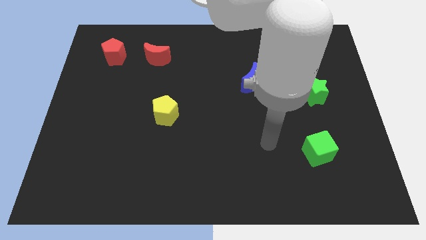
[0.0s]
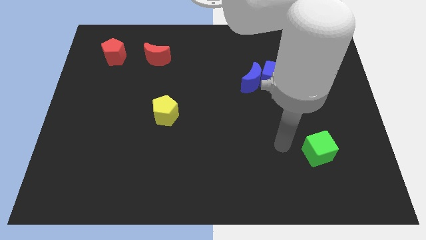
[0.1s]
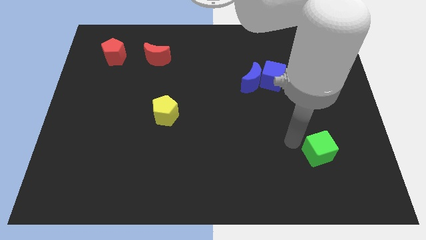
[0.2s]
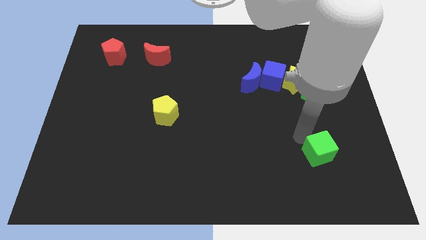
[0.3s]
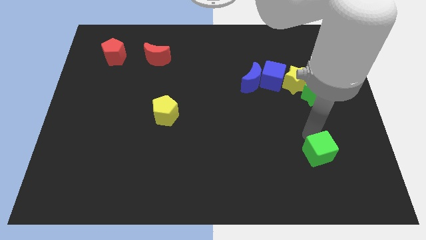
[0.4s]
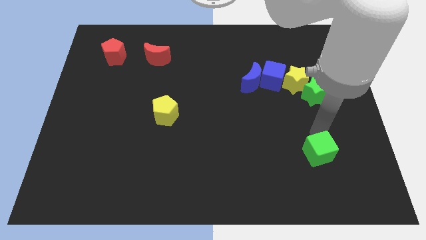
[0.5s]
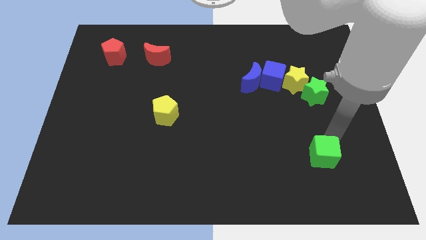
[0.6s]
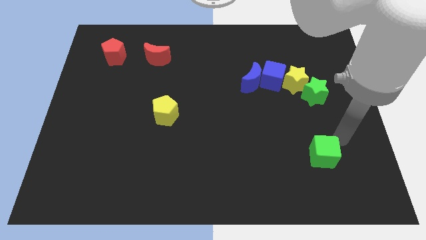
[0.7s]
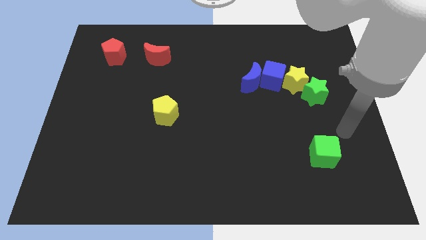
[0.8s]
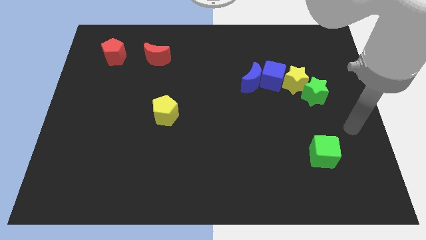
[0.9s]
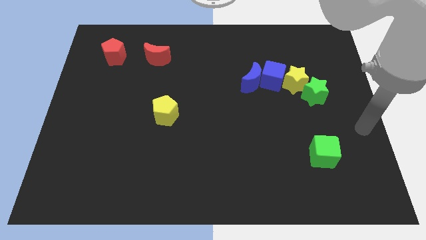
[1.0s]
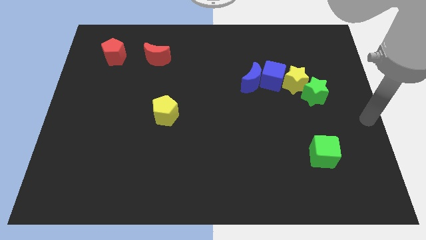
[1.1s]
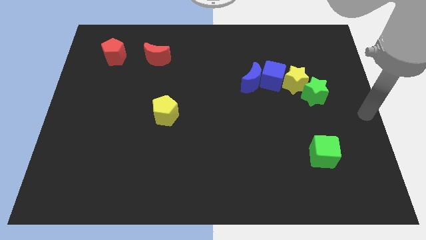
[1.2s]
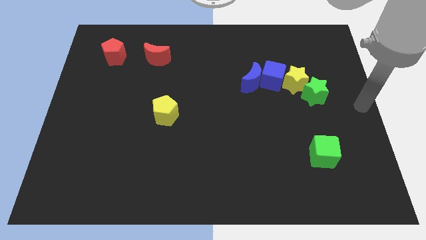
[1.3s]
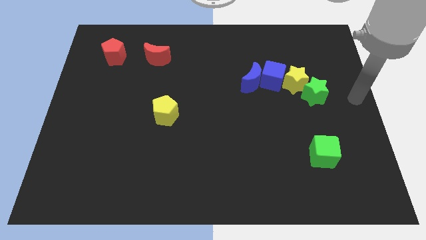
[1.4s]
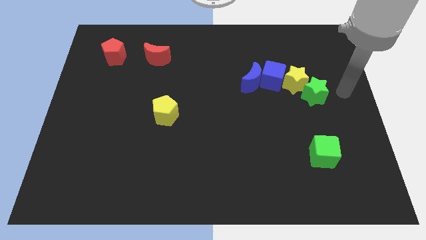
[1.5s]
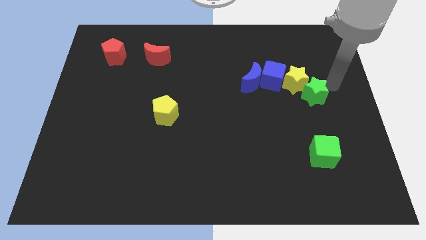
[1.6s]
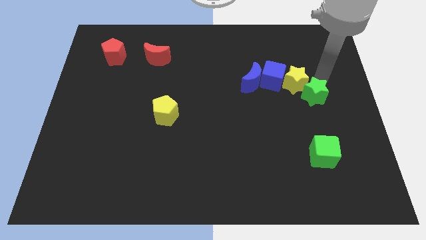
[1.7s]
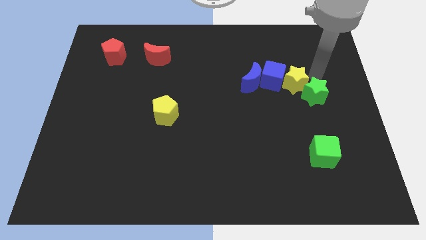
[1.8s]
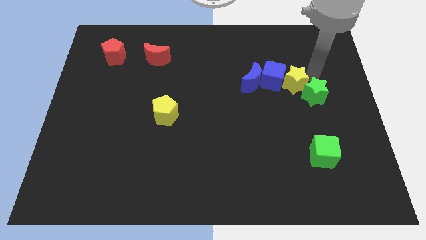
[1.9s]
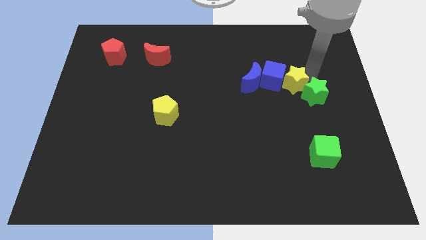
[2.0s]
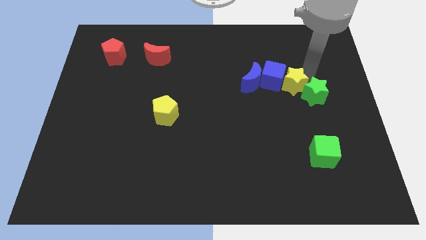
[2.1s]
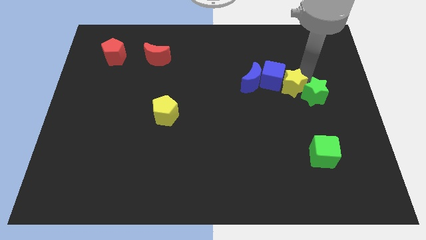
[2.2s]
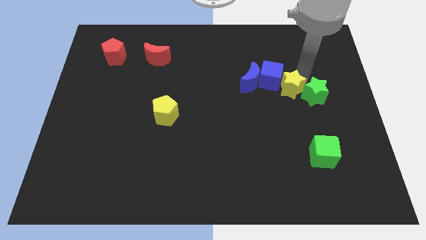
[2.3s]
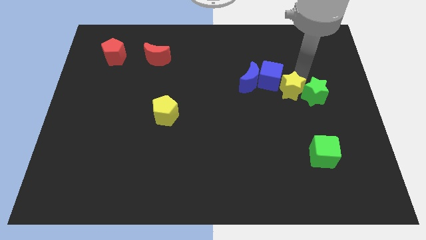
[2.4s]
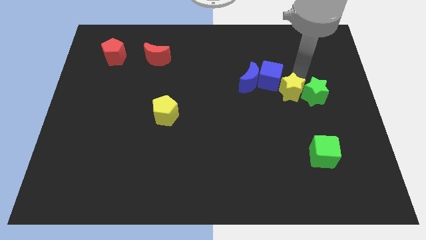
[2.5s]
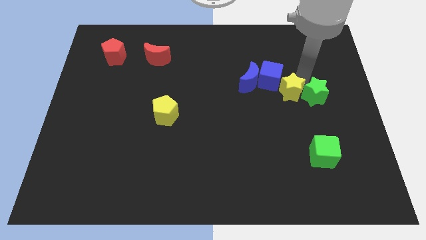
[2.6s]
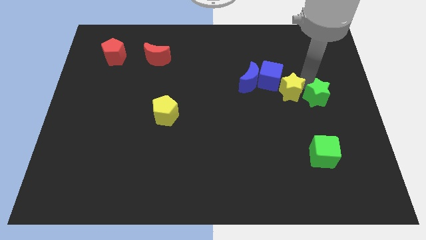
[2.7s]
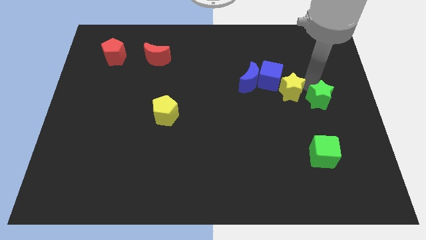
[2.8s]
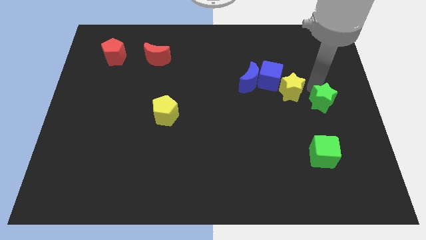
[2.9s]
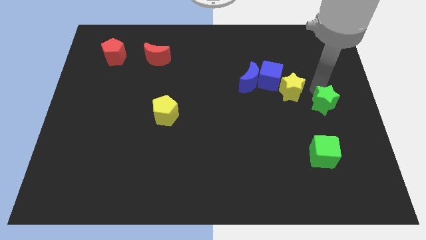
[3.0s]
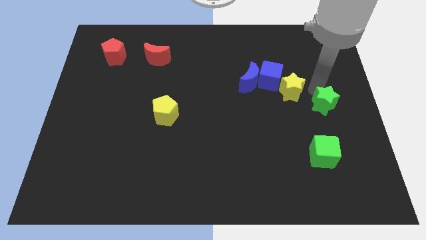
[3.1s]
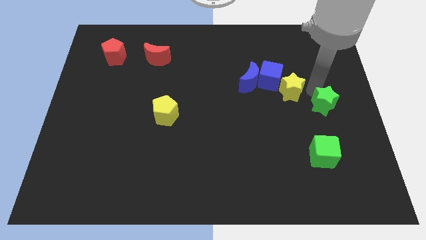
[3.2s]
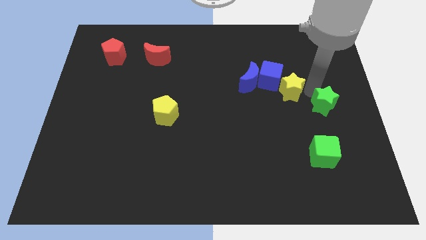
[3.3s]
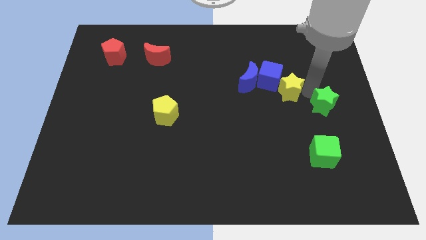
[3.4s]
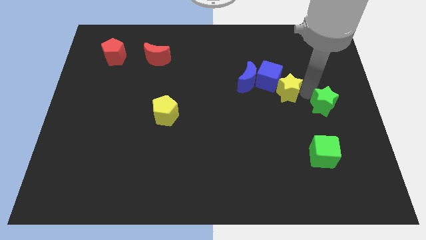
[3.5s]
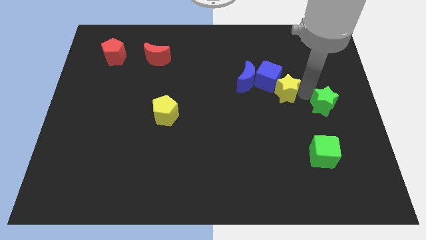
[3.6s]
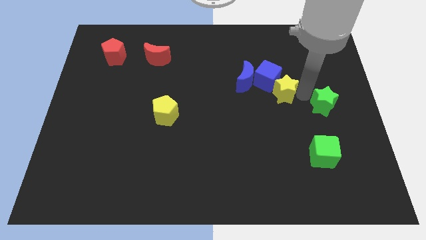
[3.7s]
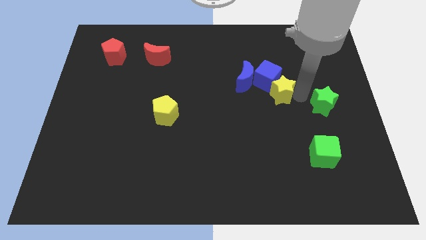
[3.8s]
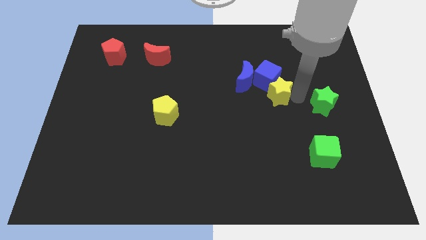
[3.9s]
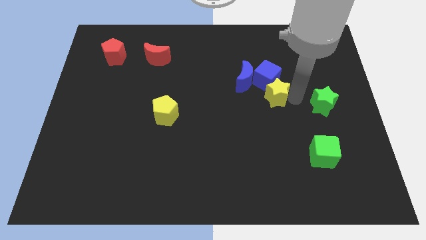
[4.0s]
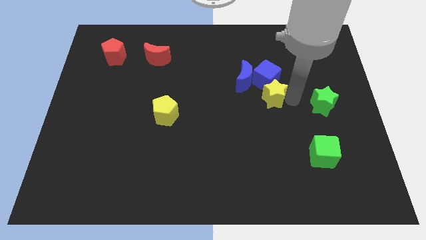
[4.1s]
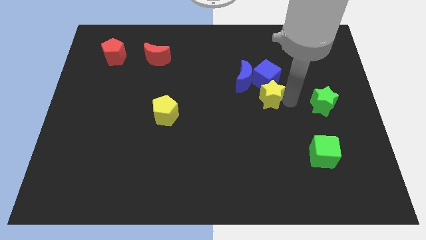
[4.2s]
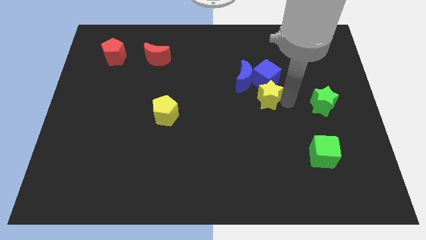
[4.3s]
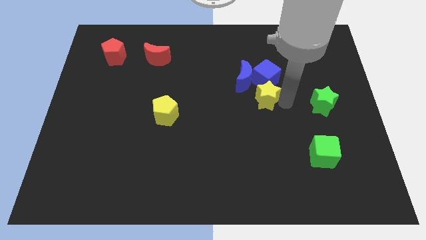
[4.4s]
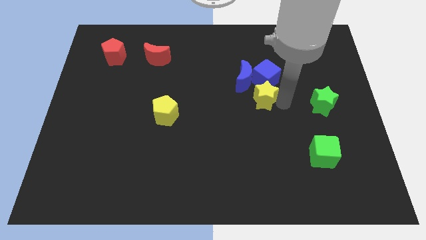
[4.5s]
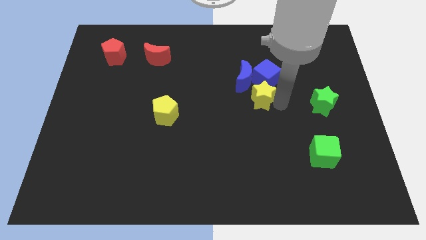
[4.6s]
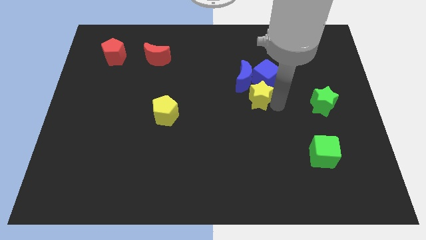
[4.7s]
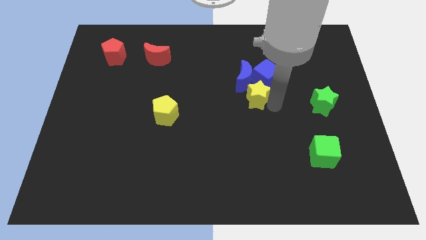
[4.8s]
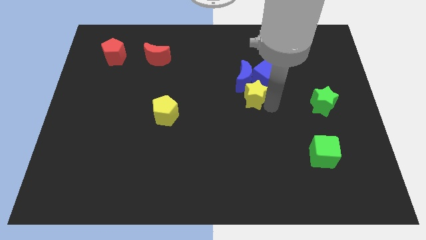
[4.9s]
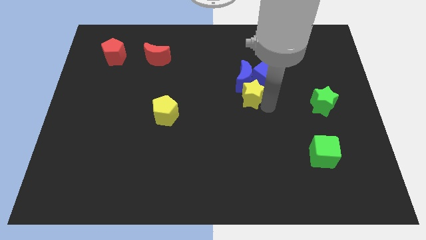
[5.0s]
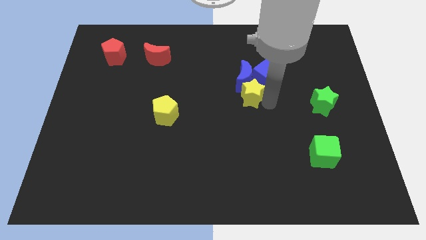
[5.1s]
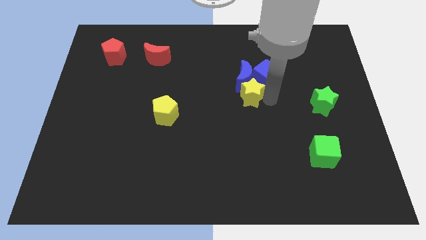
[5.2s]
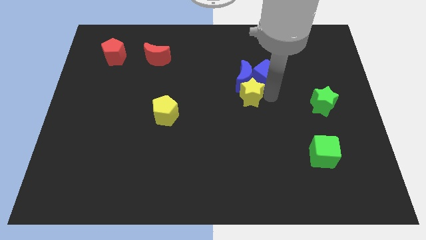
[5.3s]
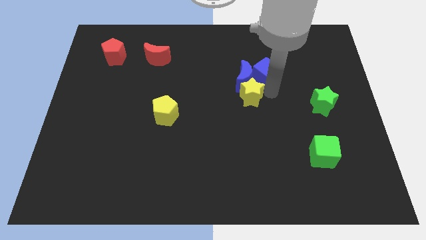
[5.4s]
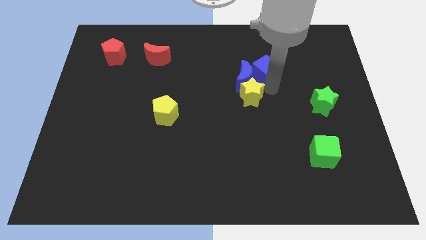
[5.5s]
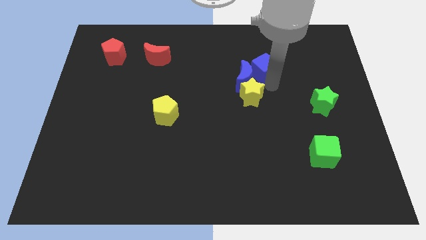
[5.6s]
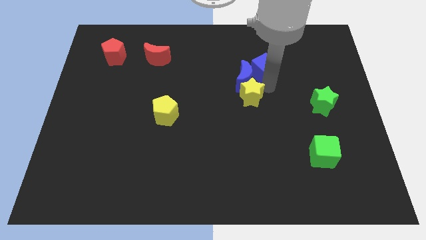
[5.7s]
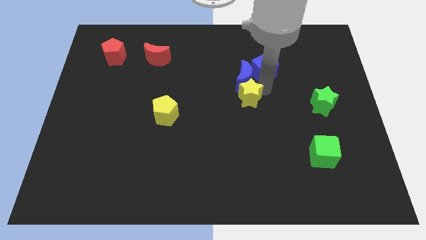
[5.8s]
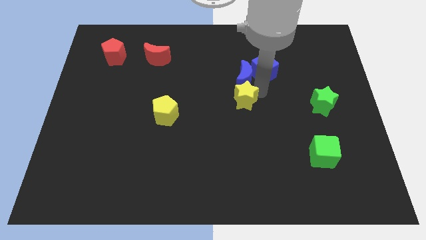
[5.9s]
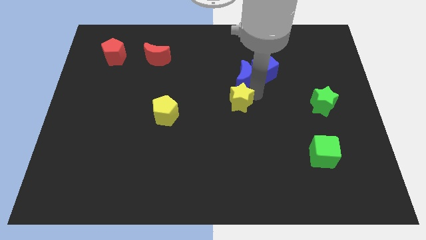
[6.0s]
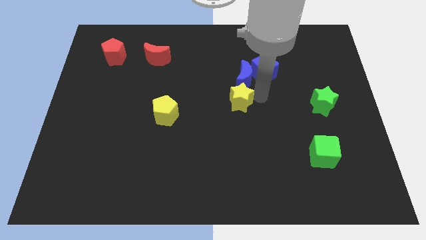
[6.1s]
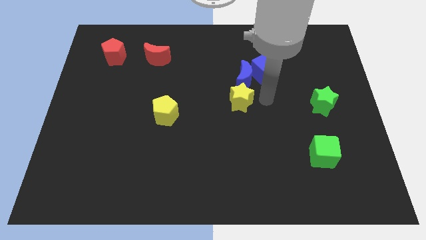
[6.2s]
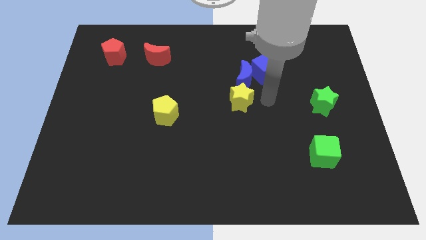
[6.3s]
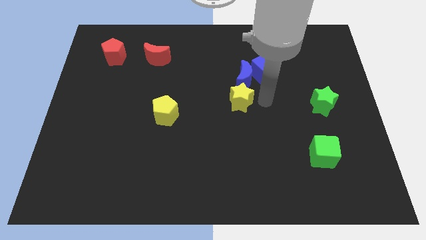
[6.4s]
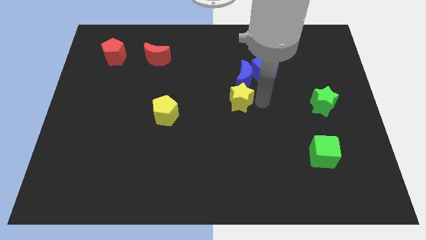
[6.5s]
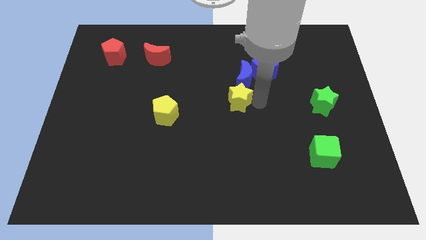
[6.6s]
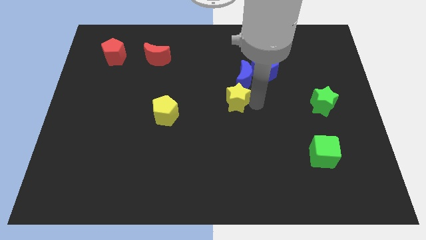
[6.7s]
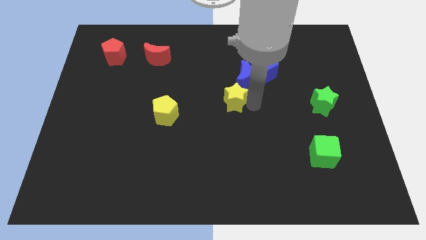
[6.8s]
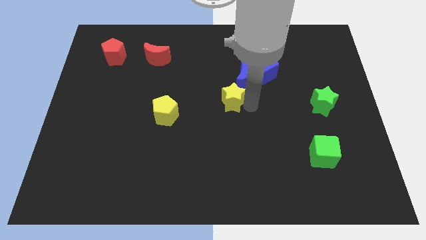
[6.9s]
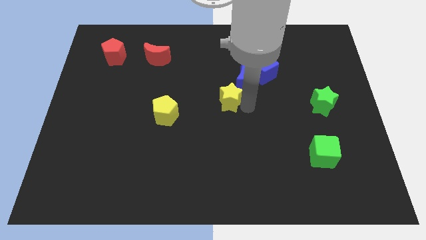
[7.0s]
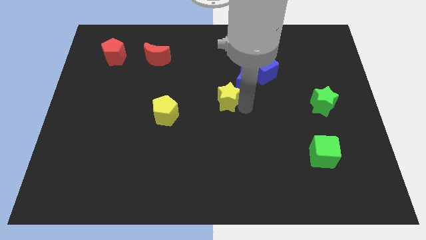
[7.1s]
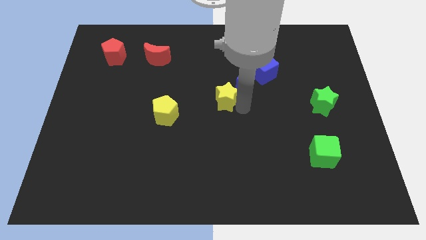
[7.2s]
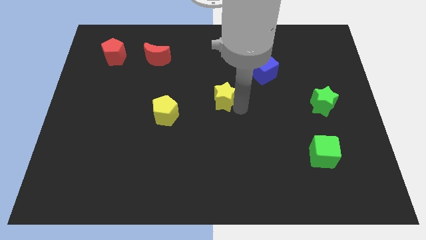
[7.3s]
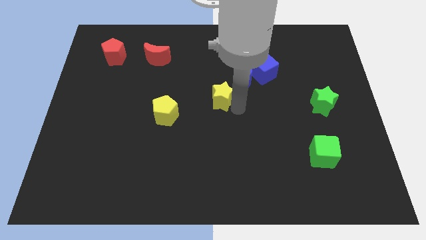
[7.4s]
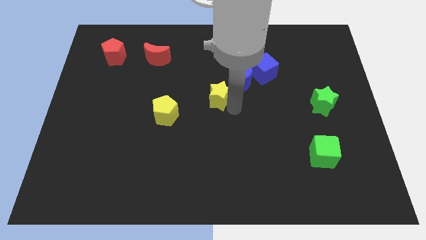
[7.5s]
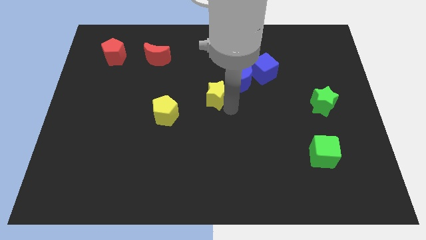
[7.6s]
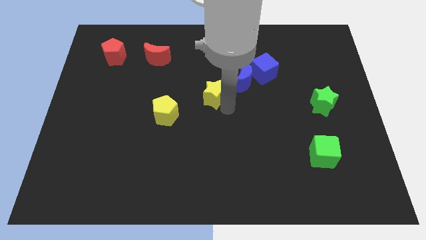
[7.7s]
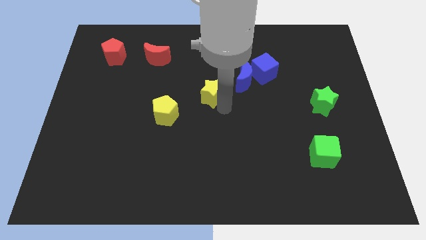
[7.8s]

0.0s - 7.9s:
push the yellow star to the left

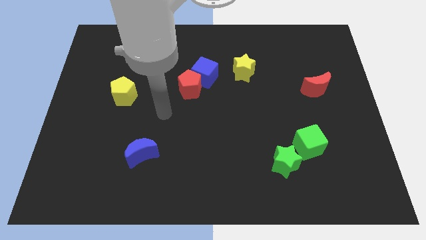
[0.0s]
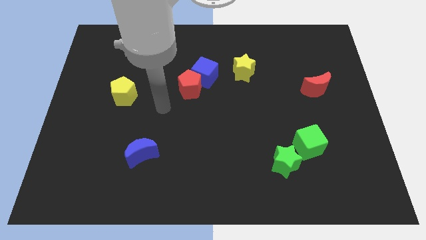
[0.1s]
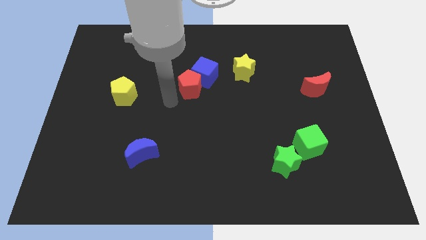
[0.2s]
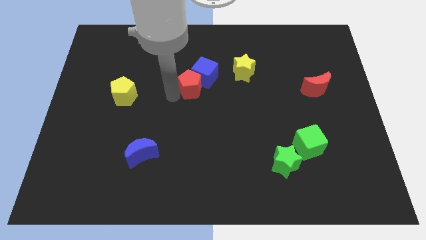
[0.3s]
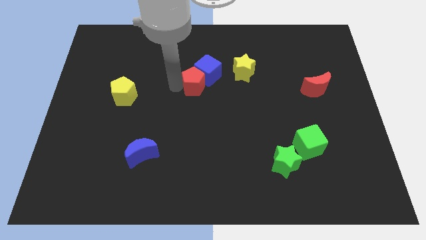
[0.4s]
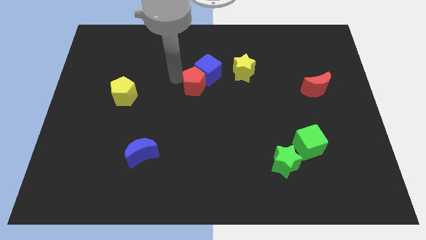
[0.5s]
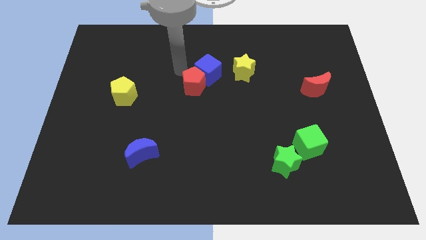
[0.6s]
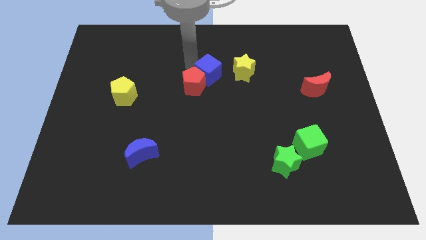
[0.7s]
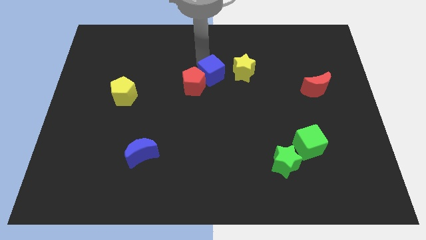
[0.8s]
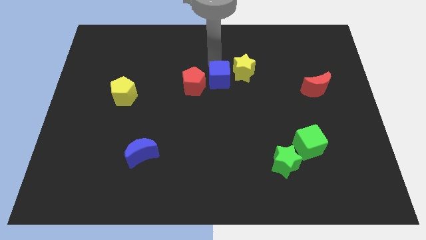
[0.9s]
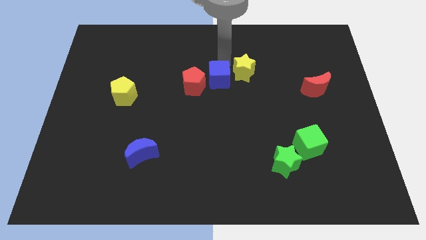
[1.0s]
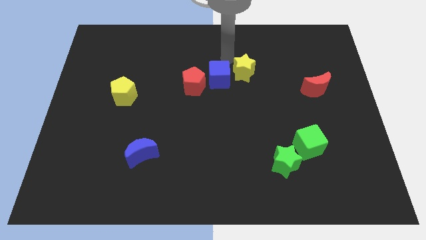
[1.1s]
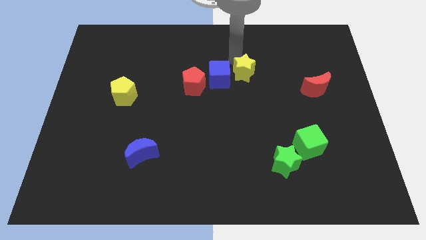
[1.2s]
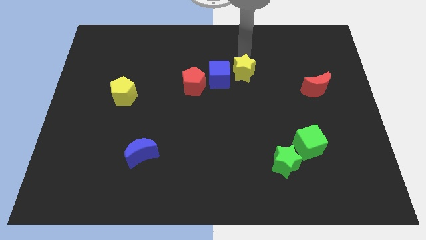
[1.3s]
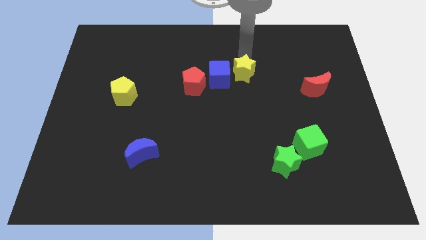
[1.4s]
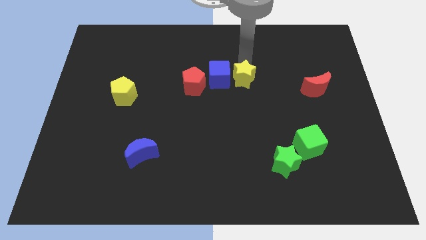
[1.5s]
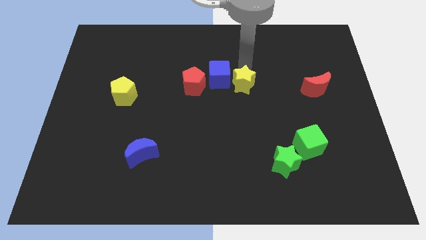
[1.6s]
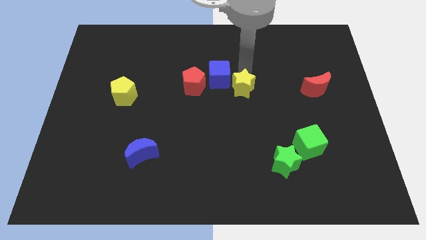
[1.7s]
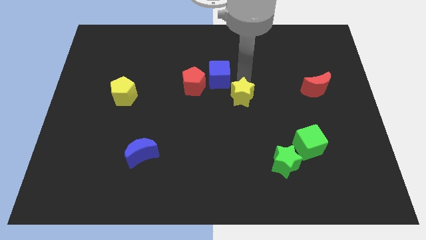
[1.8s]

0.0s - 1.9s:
slide the yellow star downwards a little
